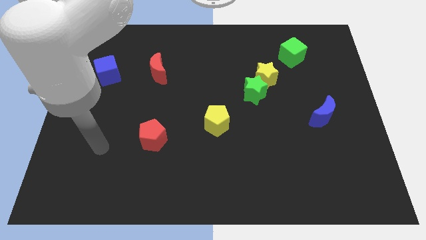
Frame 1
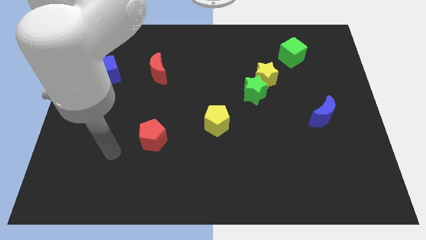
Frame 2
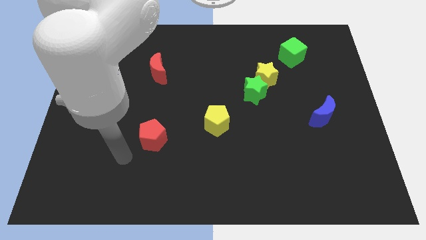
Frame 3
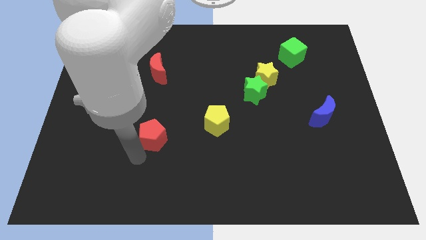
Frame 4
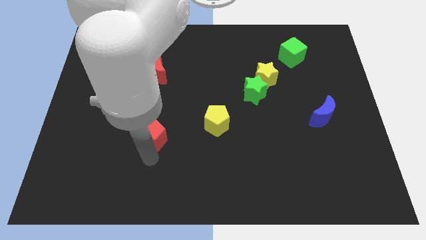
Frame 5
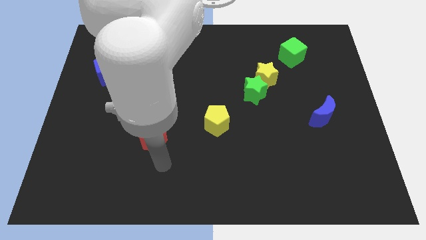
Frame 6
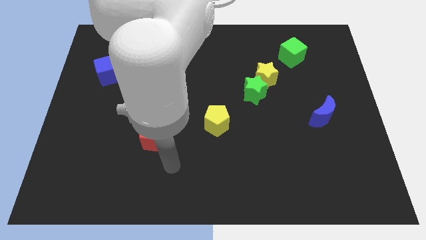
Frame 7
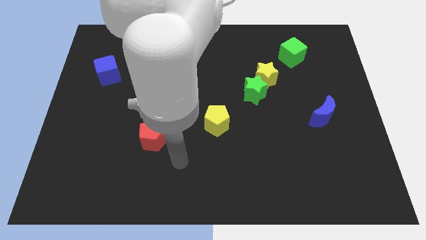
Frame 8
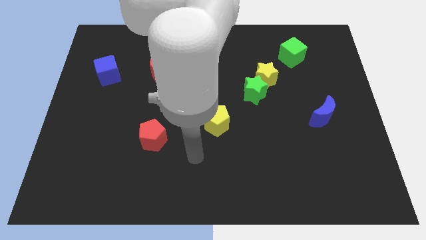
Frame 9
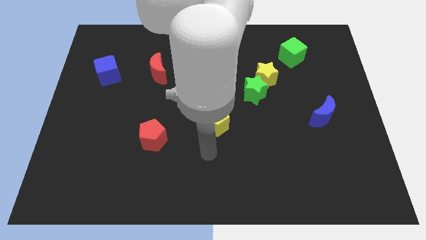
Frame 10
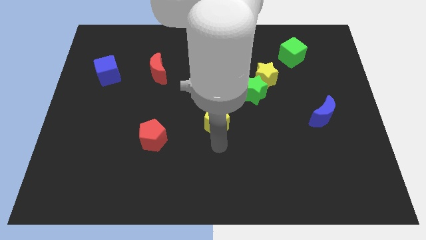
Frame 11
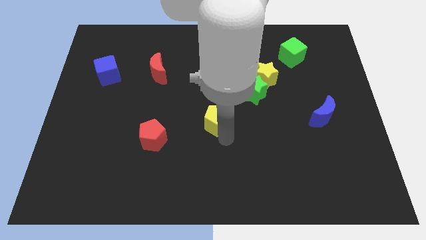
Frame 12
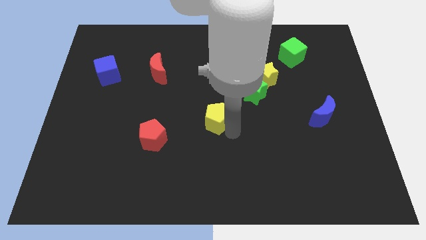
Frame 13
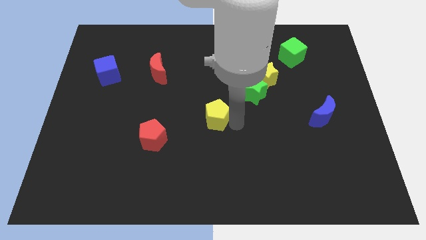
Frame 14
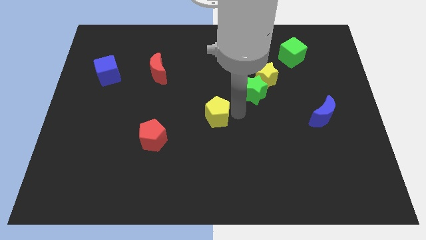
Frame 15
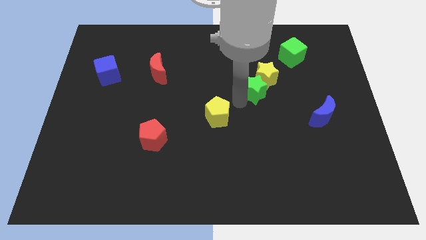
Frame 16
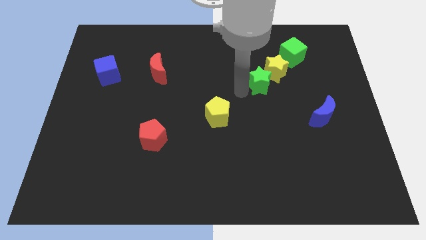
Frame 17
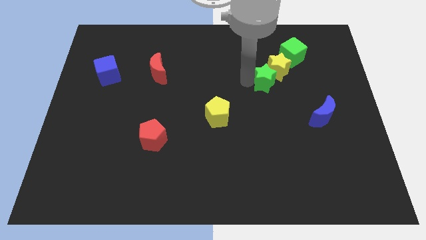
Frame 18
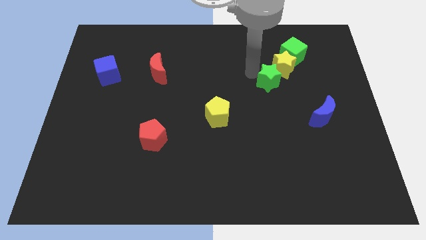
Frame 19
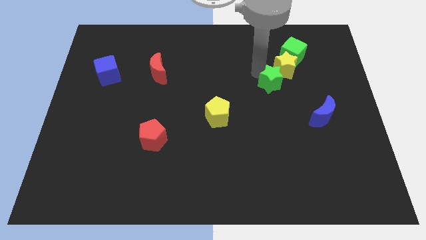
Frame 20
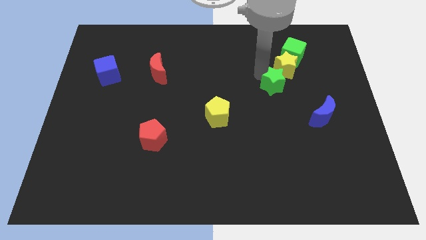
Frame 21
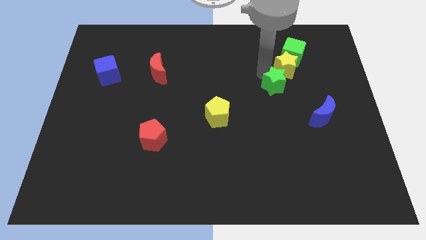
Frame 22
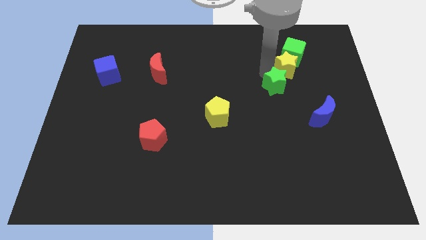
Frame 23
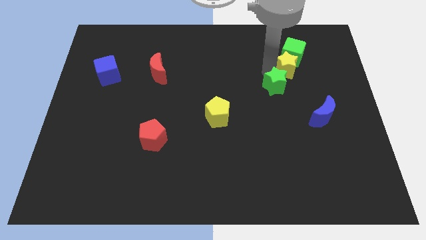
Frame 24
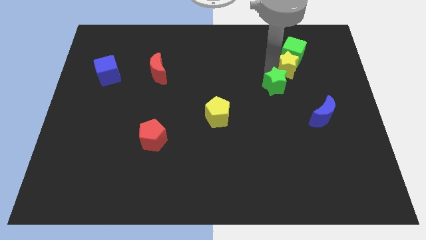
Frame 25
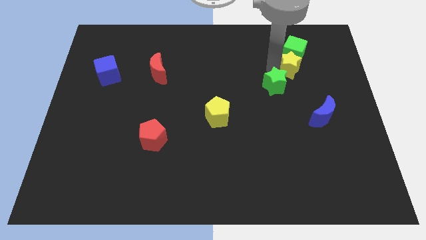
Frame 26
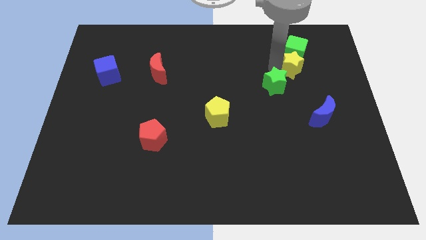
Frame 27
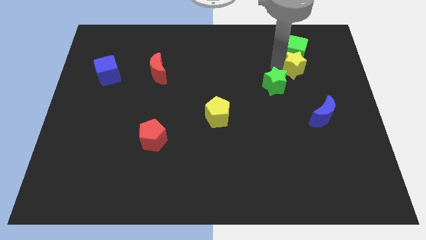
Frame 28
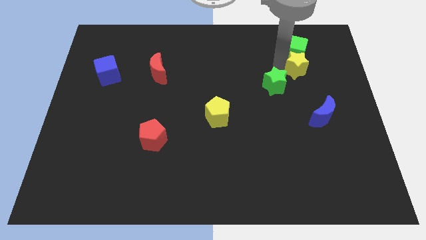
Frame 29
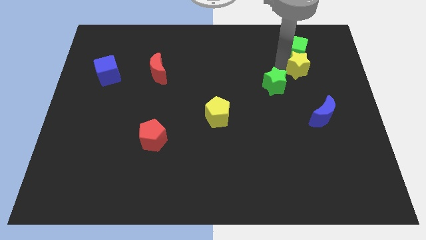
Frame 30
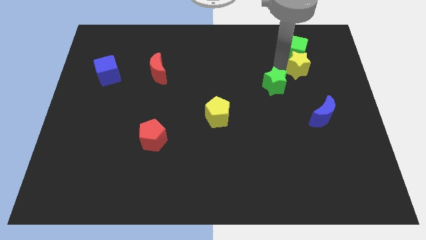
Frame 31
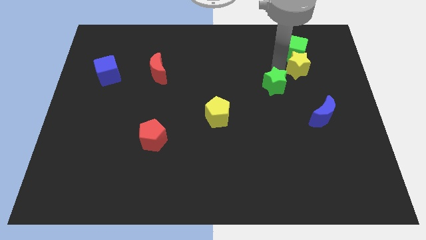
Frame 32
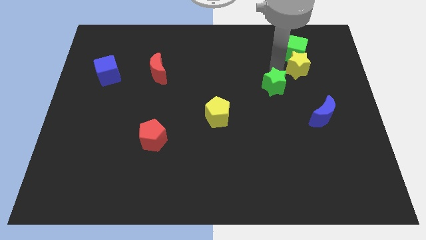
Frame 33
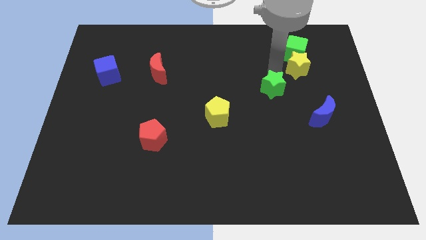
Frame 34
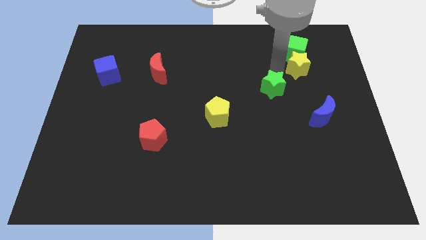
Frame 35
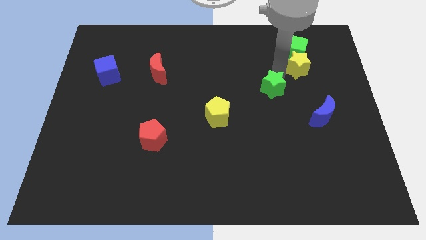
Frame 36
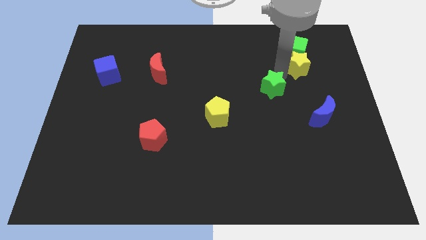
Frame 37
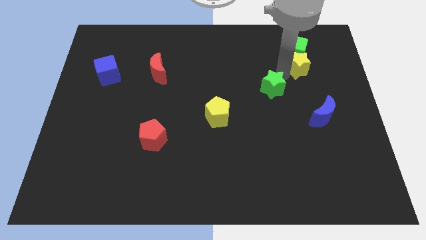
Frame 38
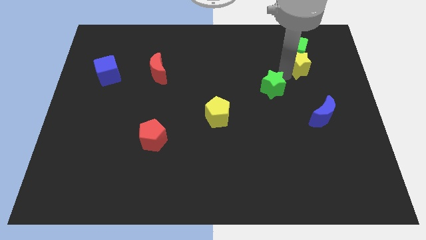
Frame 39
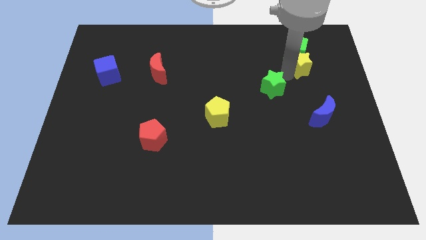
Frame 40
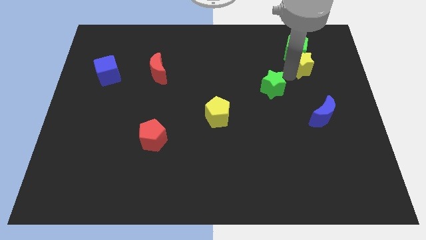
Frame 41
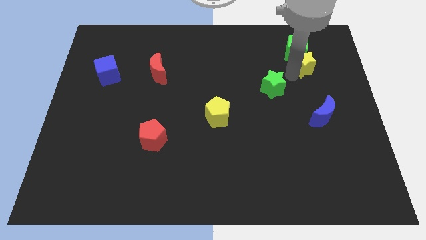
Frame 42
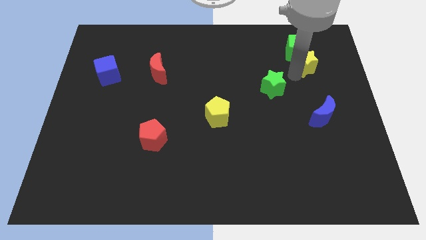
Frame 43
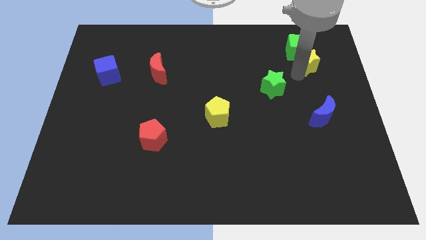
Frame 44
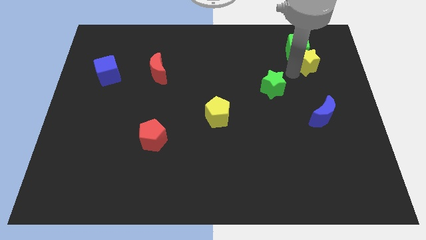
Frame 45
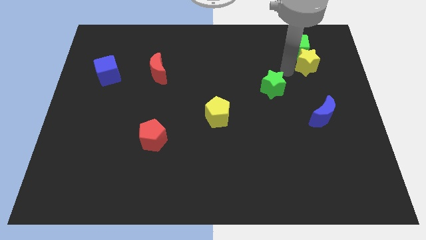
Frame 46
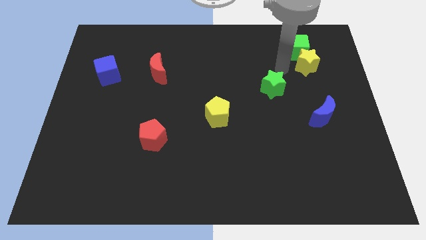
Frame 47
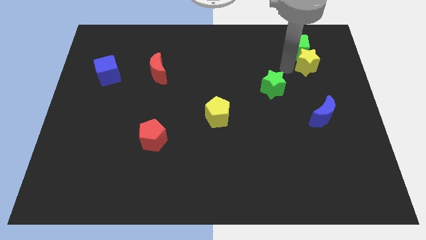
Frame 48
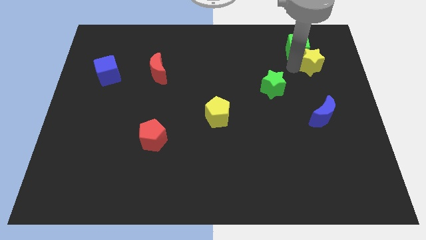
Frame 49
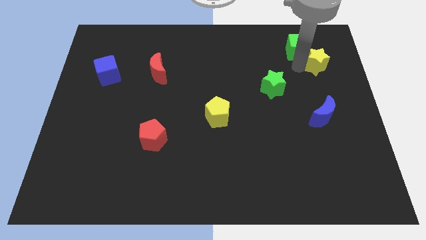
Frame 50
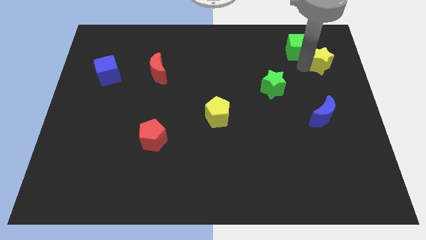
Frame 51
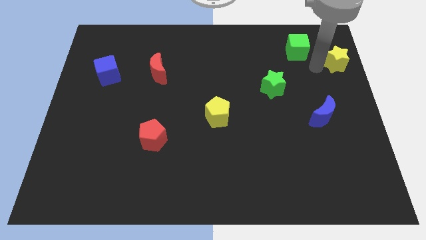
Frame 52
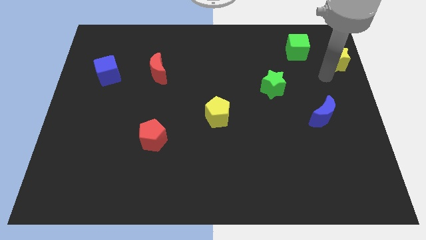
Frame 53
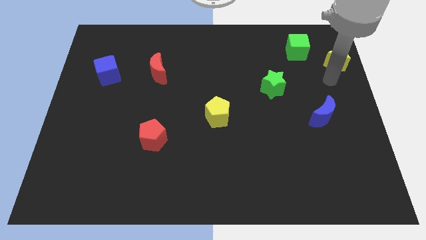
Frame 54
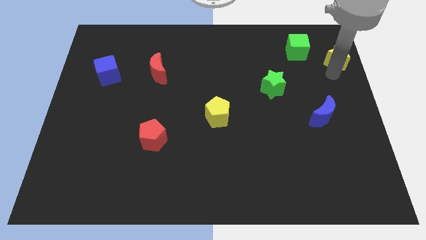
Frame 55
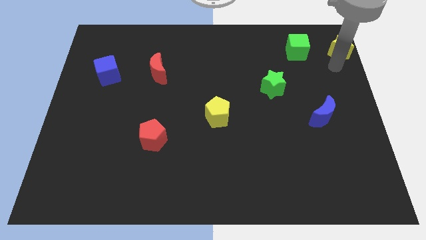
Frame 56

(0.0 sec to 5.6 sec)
move the yellow star to the top right corner

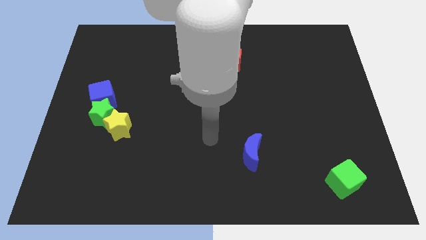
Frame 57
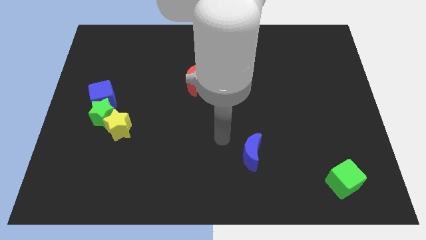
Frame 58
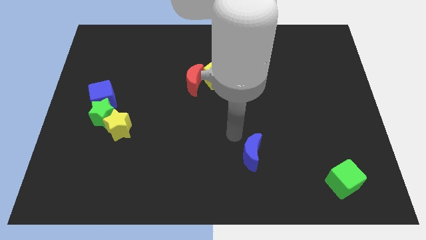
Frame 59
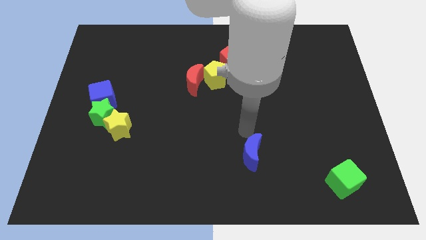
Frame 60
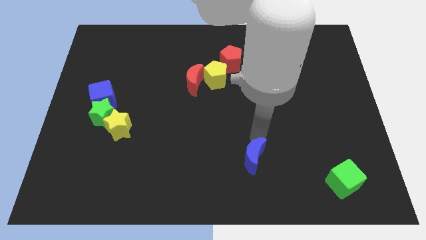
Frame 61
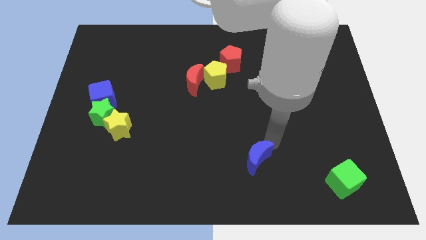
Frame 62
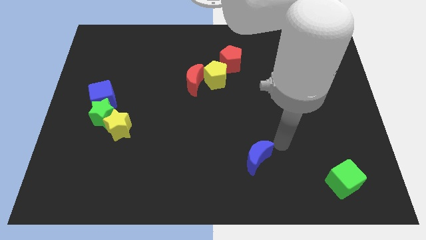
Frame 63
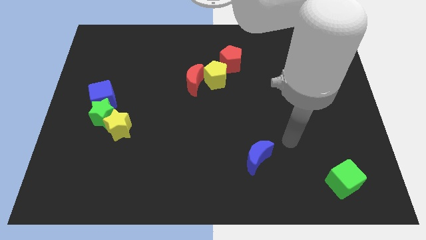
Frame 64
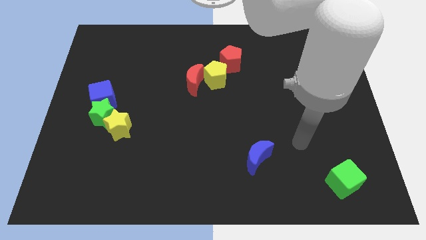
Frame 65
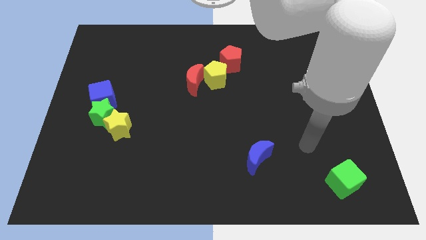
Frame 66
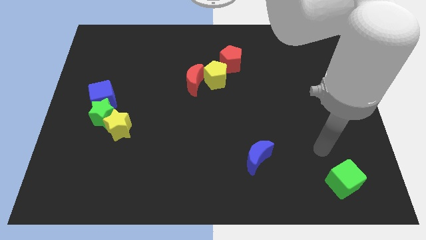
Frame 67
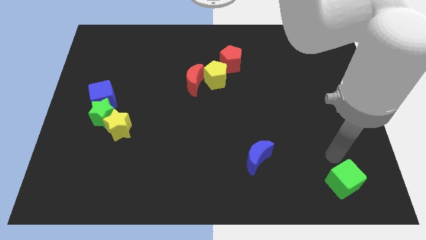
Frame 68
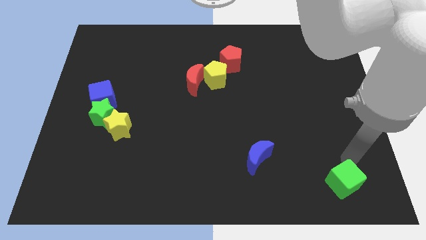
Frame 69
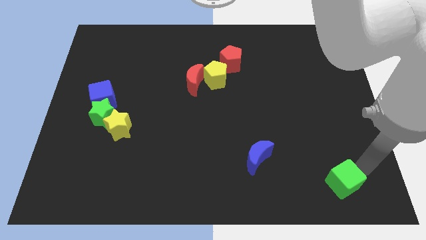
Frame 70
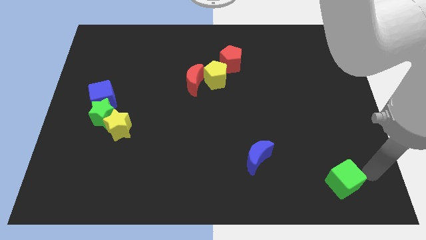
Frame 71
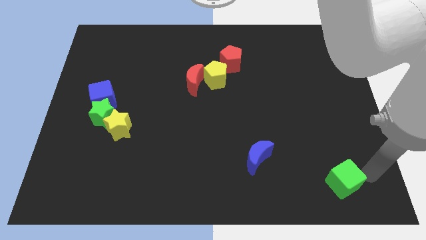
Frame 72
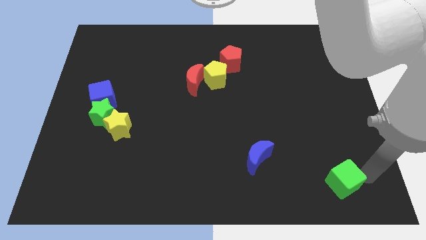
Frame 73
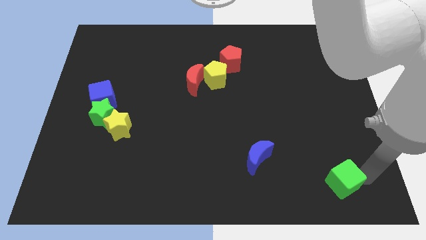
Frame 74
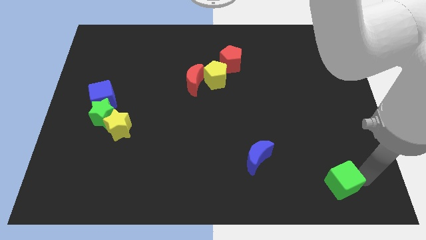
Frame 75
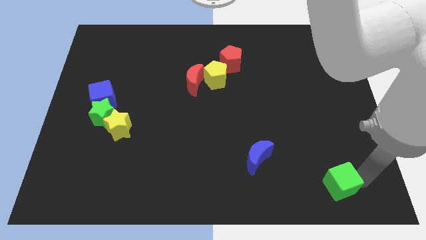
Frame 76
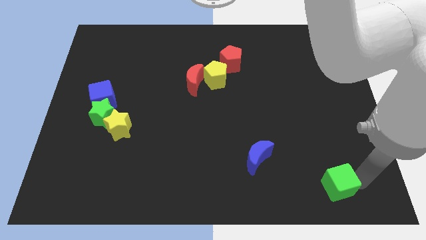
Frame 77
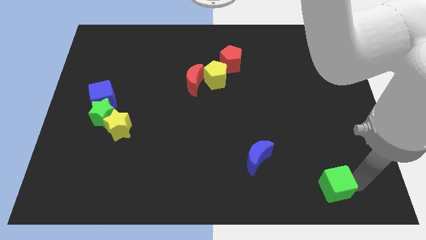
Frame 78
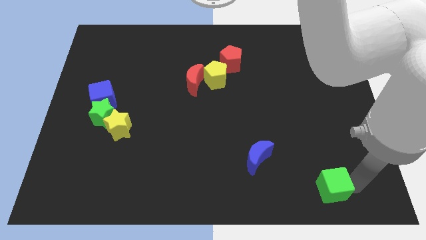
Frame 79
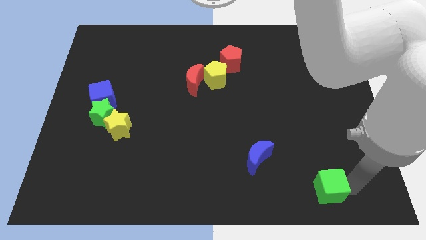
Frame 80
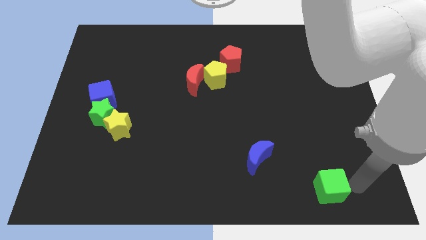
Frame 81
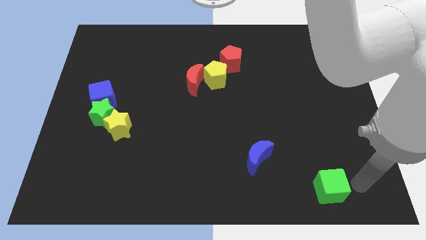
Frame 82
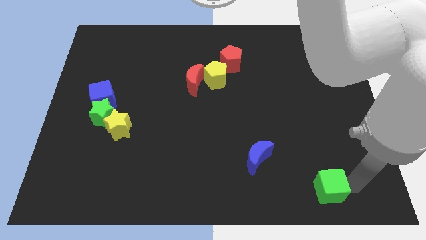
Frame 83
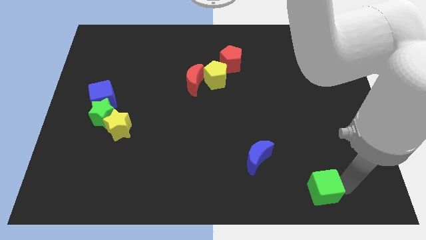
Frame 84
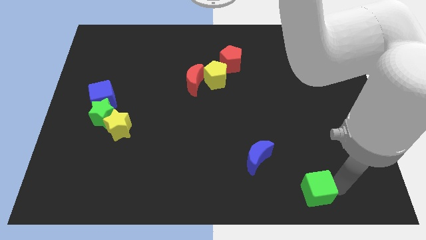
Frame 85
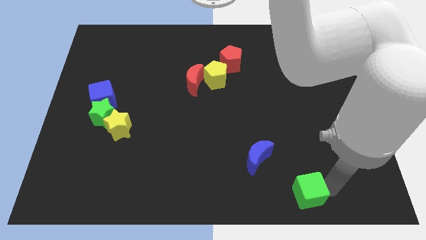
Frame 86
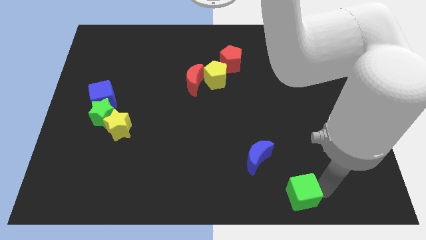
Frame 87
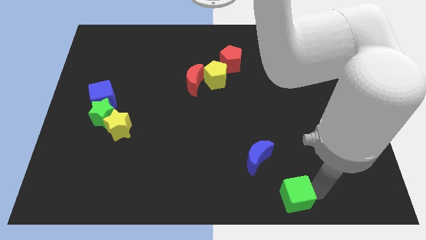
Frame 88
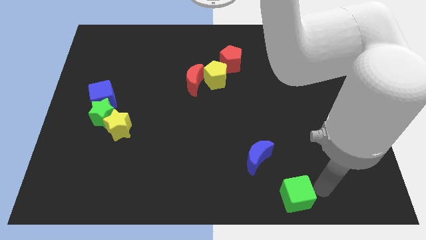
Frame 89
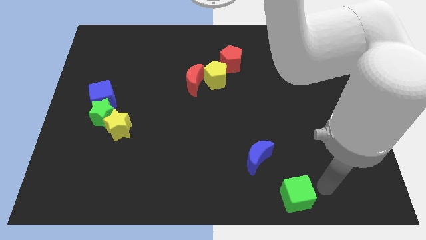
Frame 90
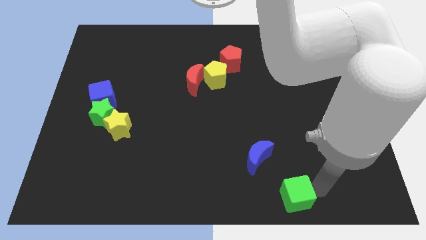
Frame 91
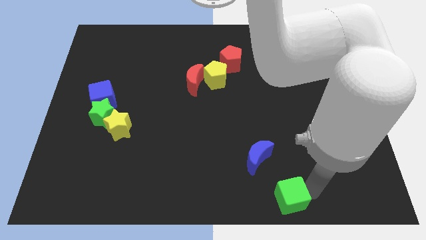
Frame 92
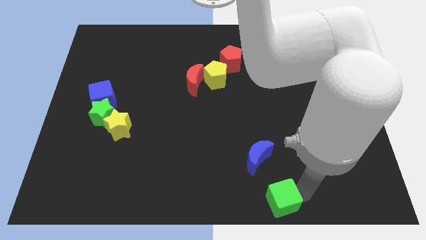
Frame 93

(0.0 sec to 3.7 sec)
move the green cube to the bottom side
